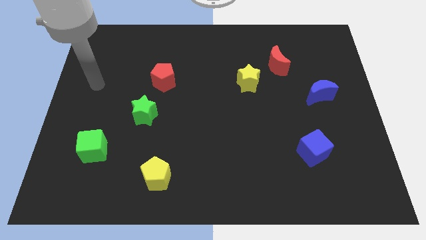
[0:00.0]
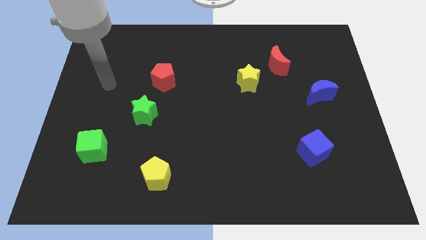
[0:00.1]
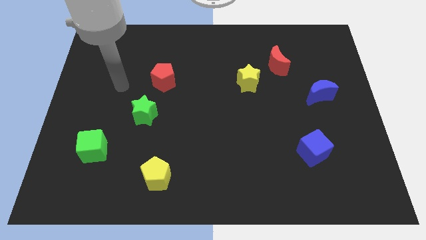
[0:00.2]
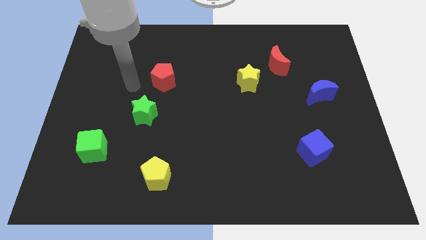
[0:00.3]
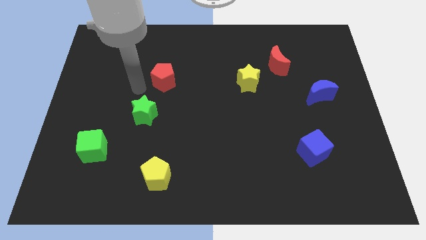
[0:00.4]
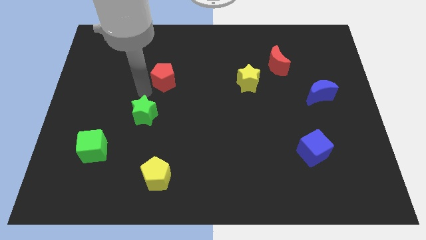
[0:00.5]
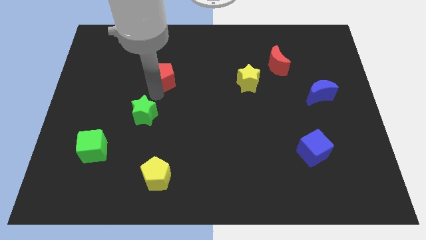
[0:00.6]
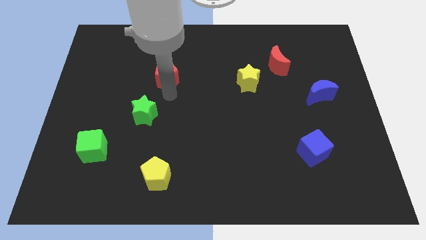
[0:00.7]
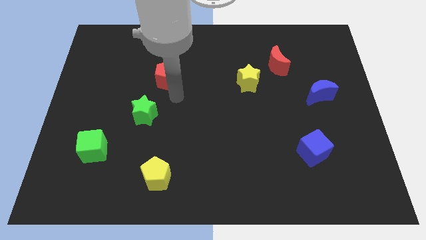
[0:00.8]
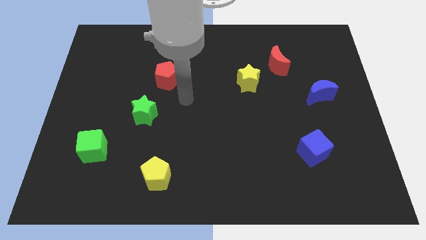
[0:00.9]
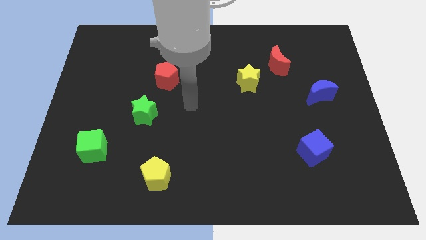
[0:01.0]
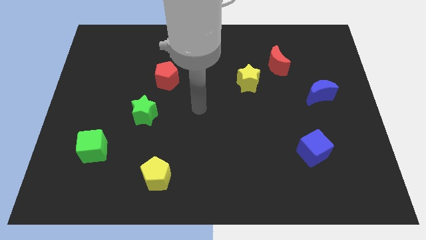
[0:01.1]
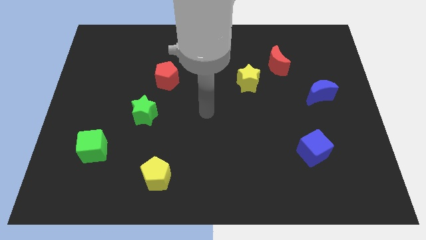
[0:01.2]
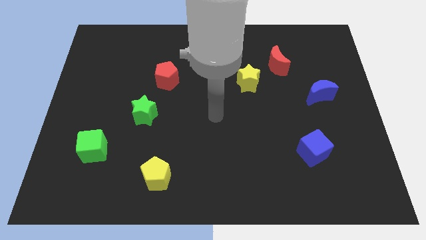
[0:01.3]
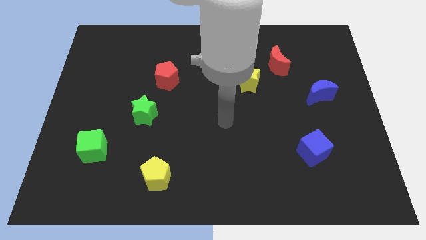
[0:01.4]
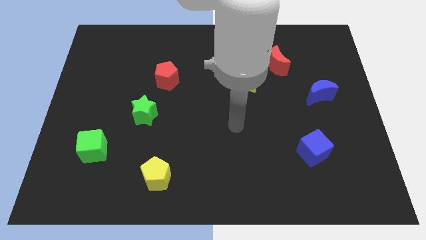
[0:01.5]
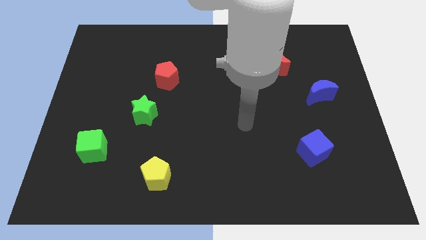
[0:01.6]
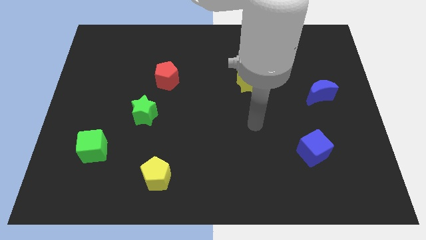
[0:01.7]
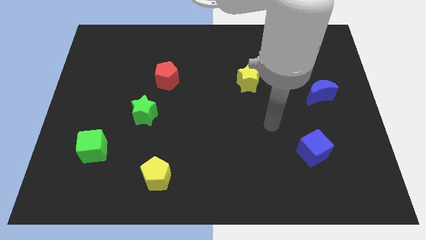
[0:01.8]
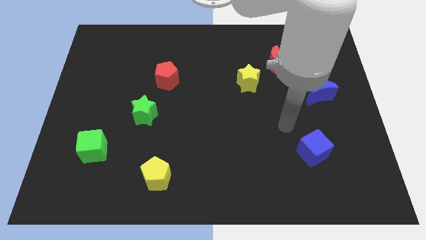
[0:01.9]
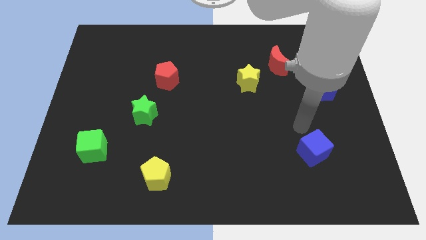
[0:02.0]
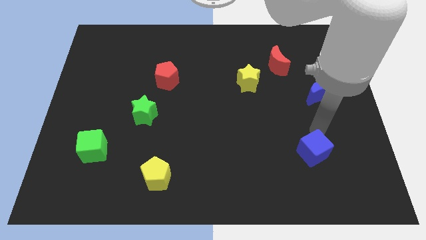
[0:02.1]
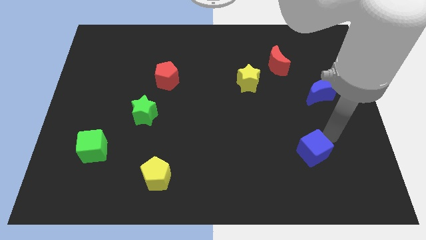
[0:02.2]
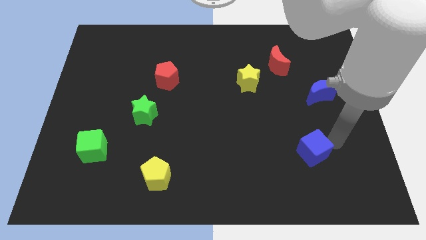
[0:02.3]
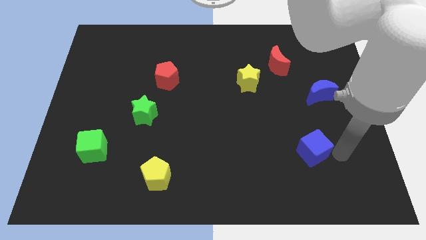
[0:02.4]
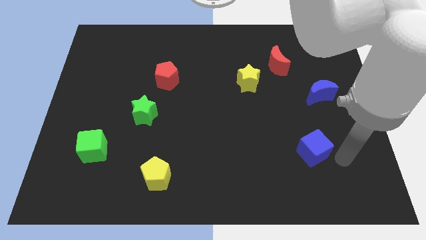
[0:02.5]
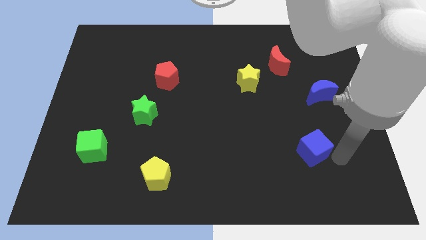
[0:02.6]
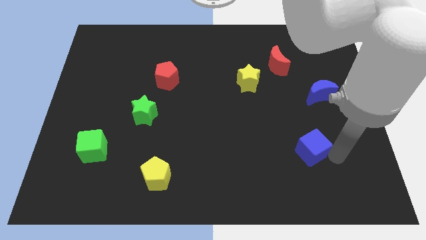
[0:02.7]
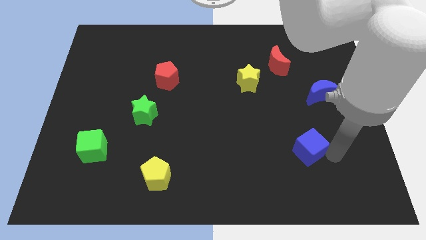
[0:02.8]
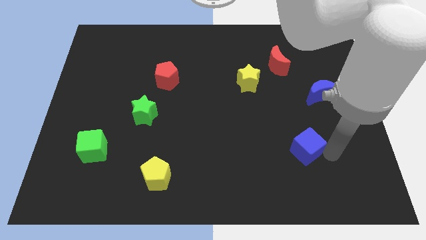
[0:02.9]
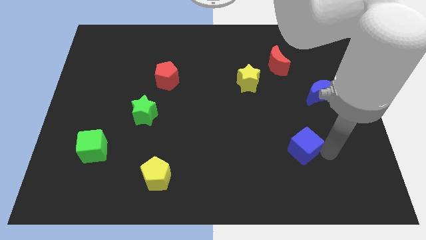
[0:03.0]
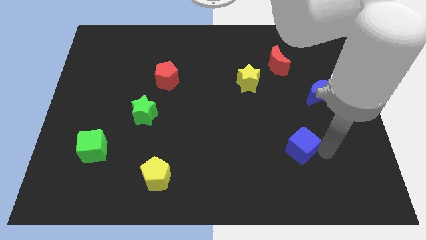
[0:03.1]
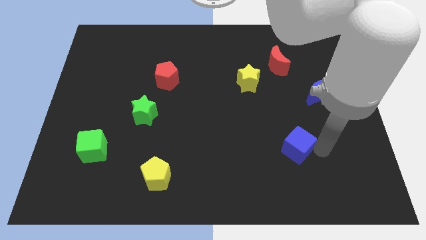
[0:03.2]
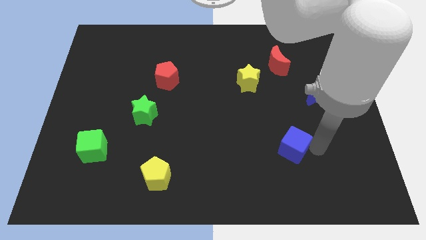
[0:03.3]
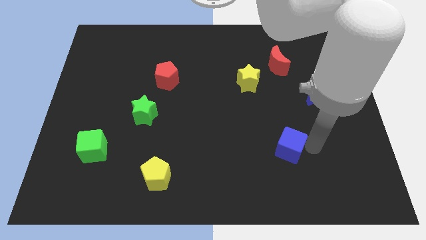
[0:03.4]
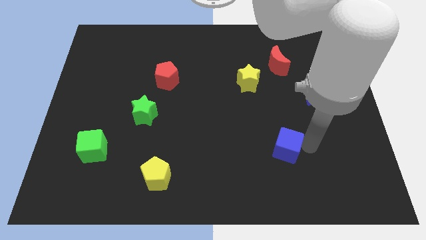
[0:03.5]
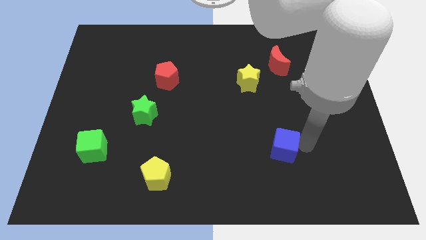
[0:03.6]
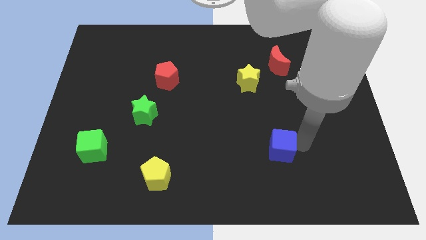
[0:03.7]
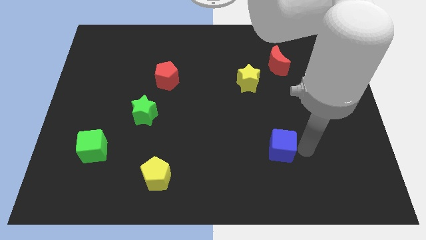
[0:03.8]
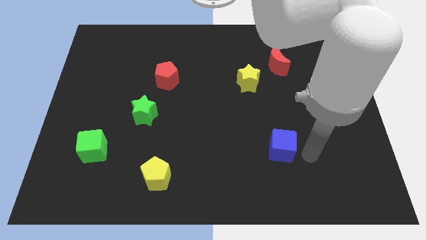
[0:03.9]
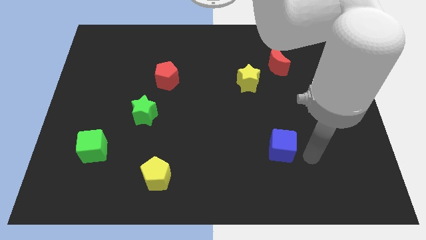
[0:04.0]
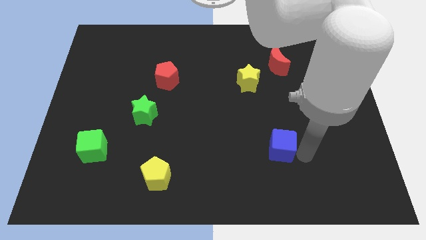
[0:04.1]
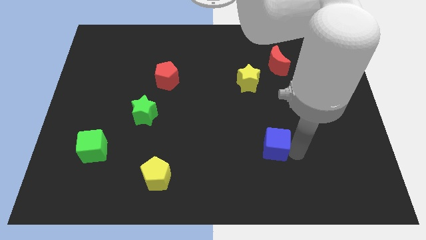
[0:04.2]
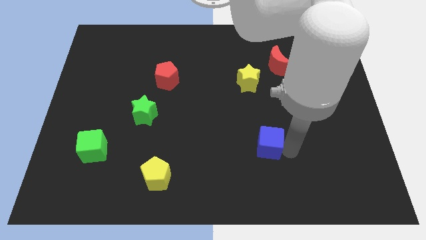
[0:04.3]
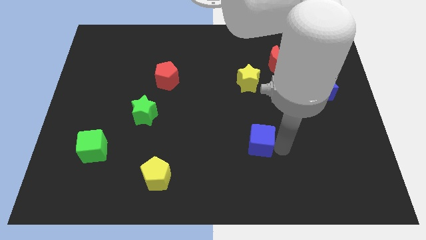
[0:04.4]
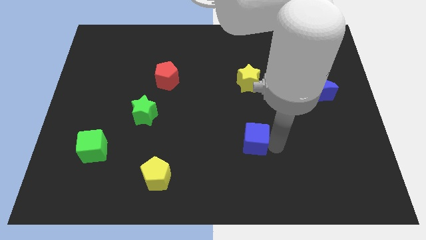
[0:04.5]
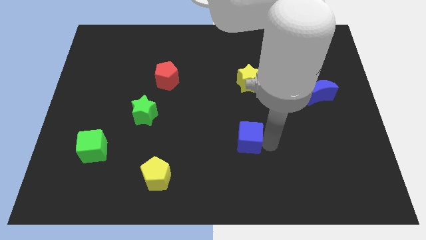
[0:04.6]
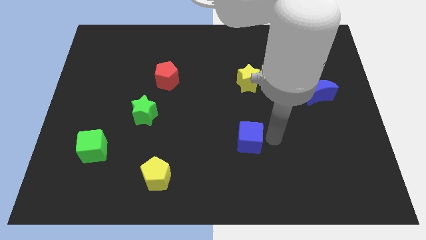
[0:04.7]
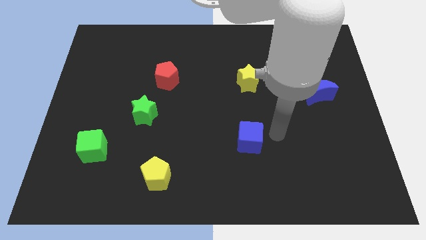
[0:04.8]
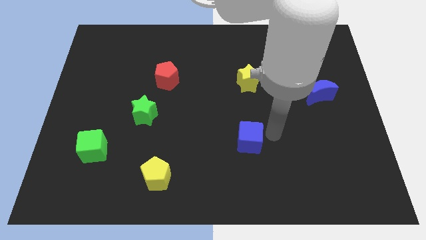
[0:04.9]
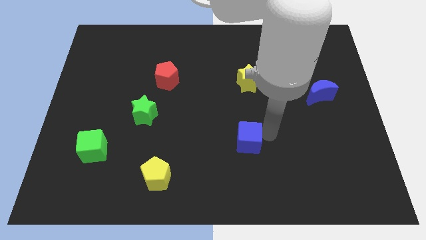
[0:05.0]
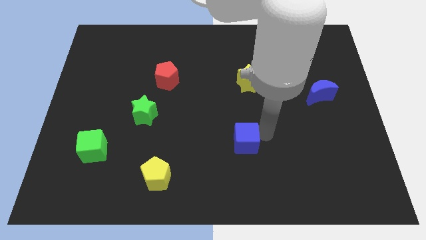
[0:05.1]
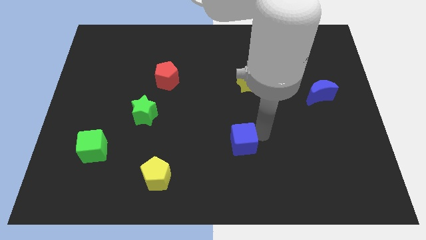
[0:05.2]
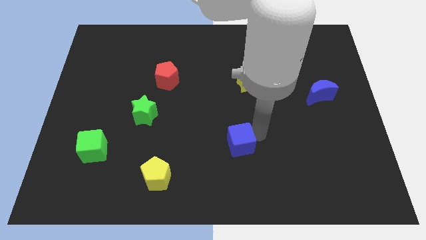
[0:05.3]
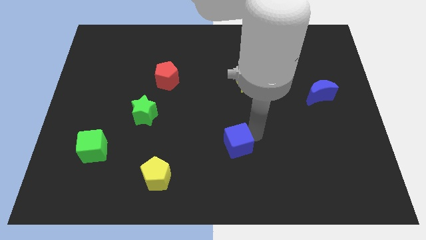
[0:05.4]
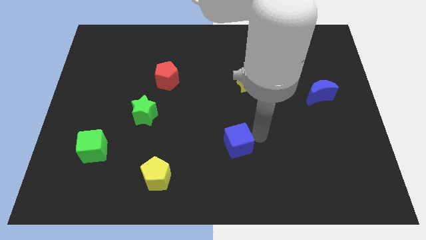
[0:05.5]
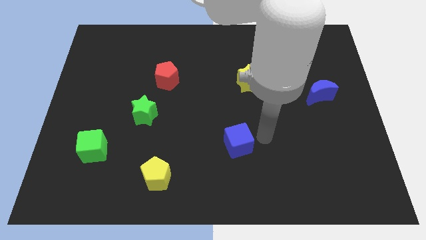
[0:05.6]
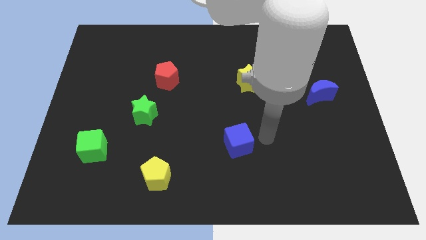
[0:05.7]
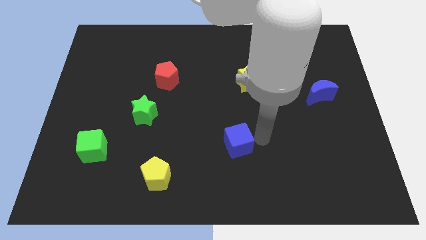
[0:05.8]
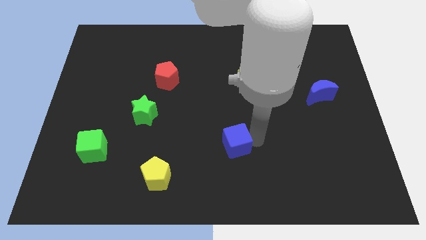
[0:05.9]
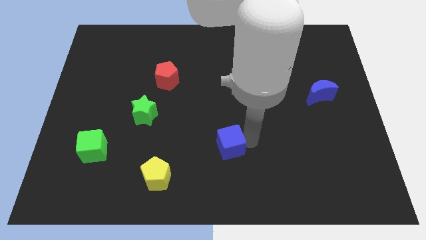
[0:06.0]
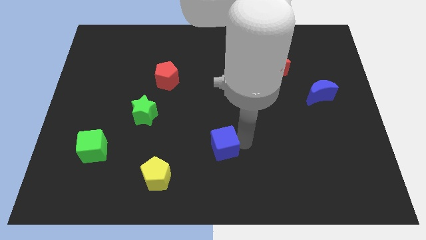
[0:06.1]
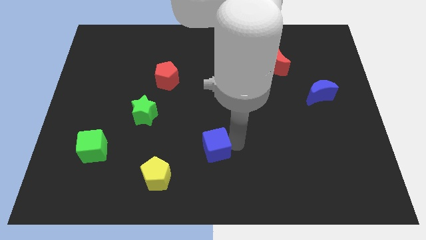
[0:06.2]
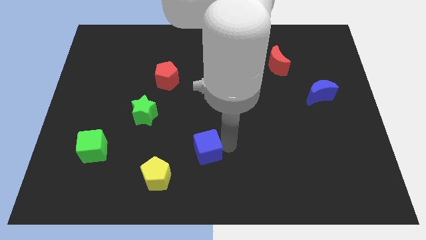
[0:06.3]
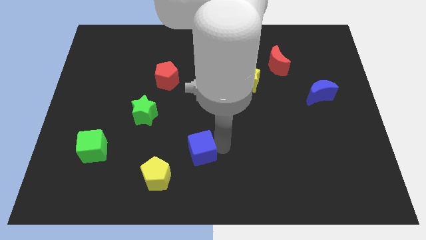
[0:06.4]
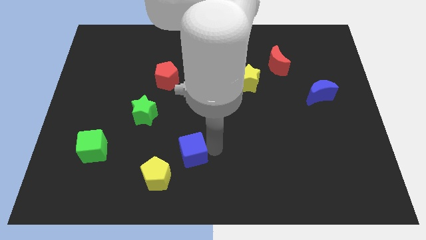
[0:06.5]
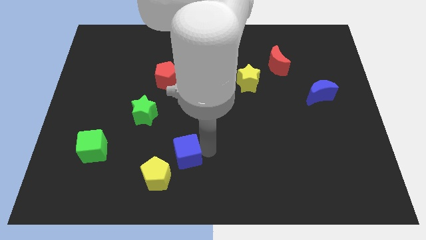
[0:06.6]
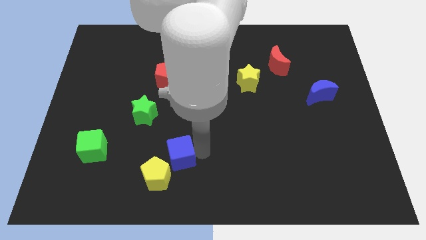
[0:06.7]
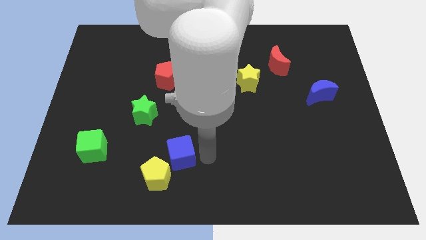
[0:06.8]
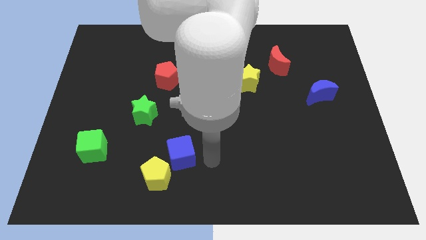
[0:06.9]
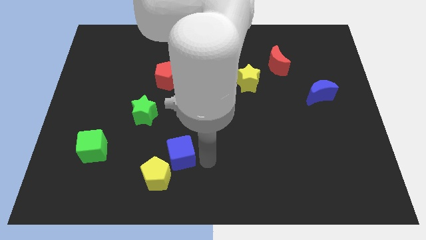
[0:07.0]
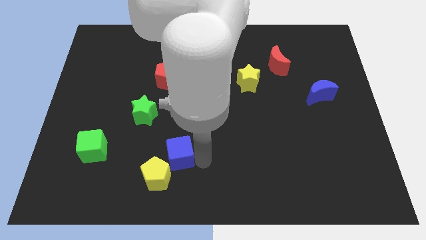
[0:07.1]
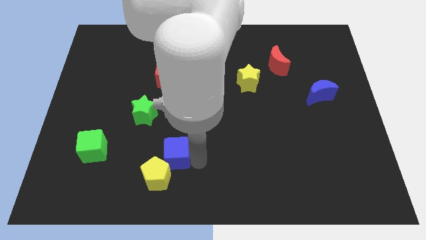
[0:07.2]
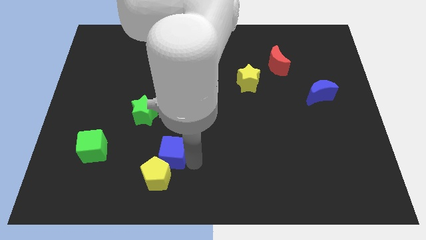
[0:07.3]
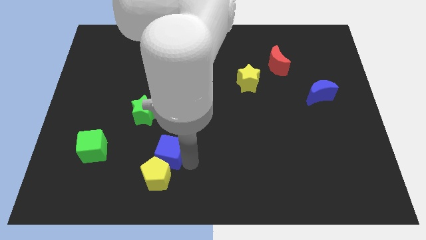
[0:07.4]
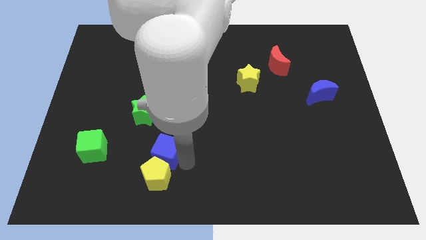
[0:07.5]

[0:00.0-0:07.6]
slide the blue cube to the right side of the green cube

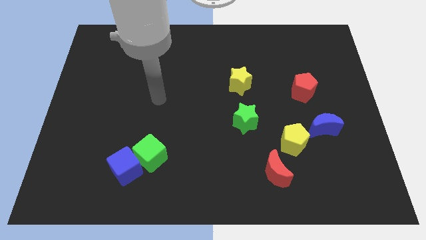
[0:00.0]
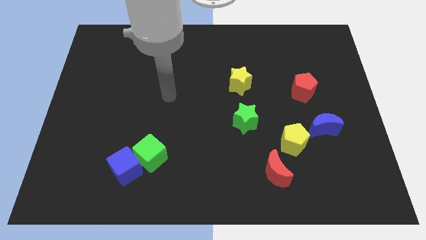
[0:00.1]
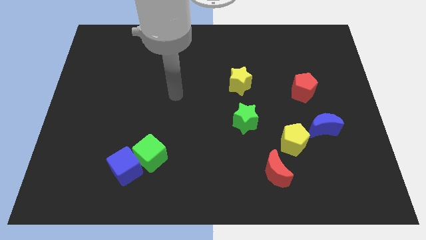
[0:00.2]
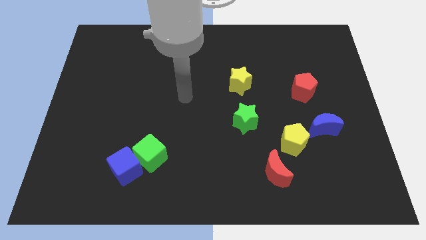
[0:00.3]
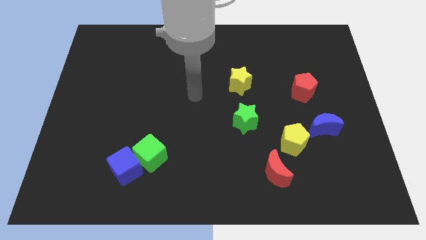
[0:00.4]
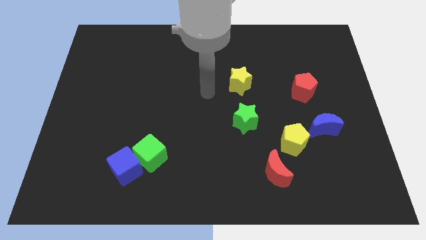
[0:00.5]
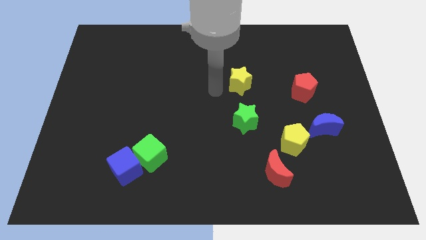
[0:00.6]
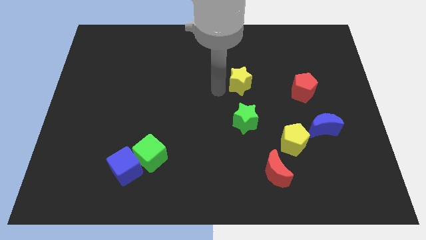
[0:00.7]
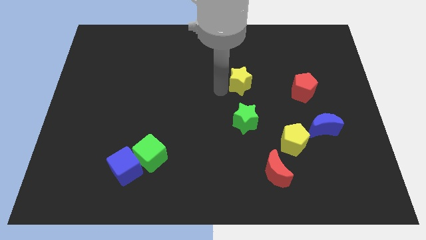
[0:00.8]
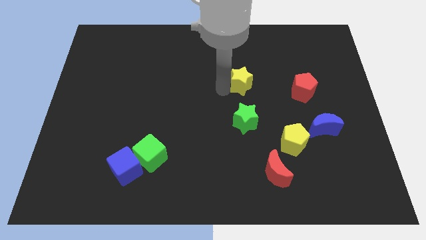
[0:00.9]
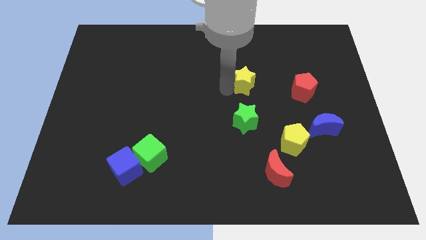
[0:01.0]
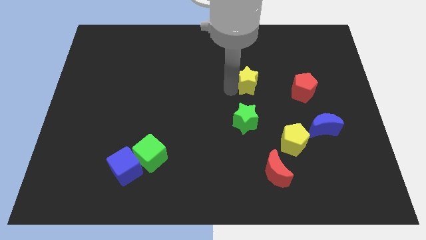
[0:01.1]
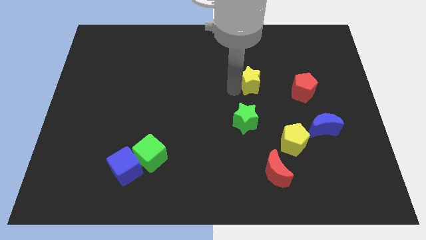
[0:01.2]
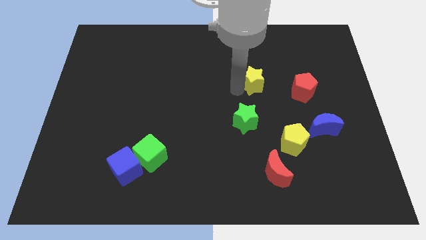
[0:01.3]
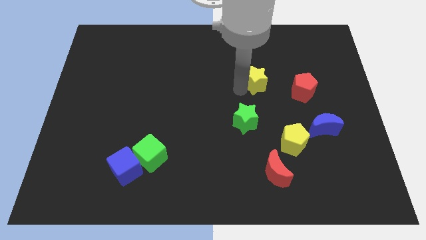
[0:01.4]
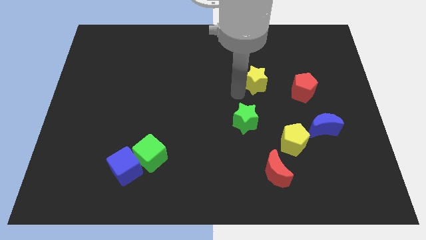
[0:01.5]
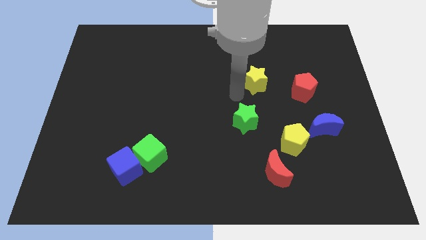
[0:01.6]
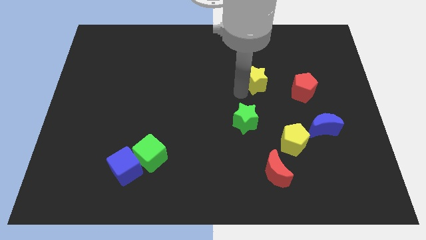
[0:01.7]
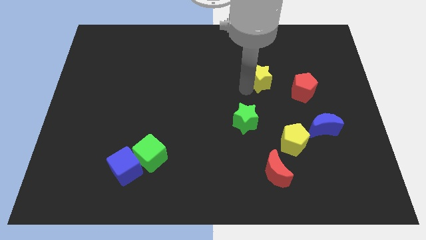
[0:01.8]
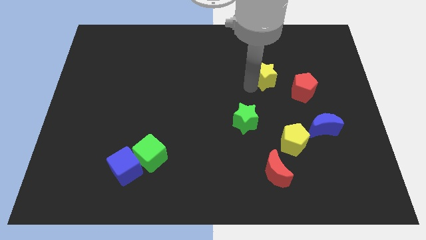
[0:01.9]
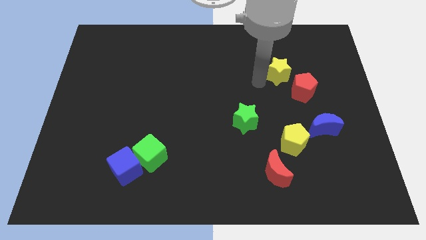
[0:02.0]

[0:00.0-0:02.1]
move the yellow star above the red pentagon
